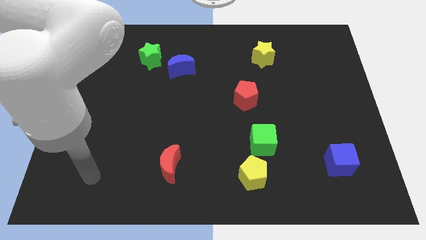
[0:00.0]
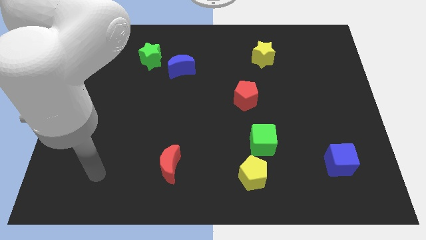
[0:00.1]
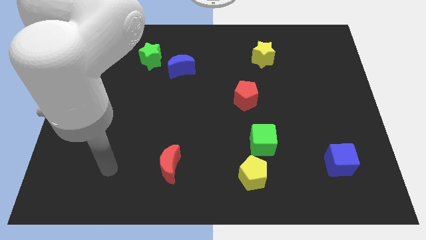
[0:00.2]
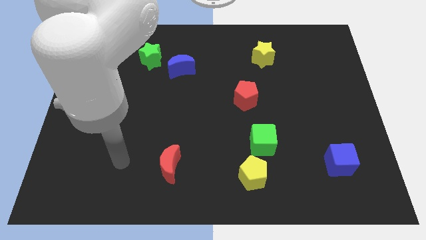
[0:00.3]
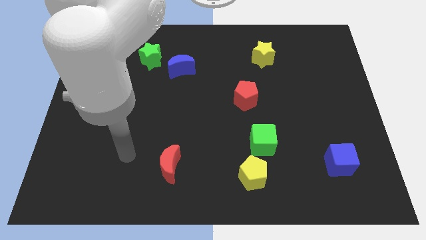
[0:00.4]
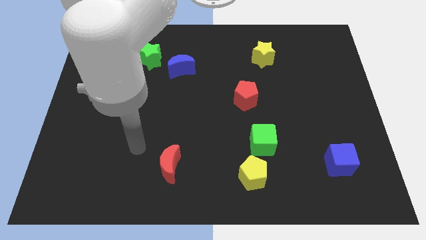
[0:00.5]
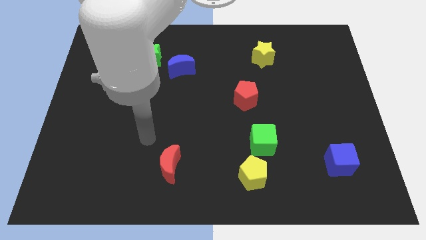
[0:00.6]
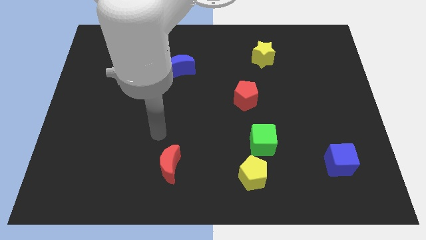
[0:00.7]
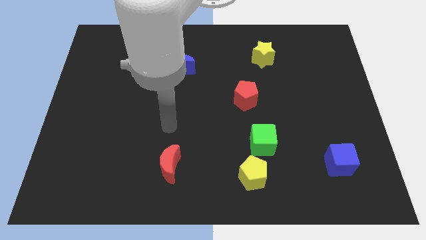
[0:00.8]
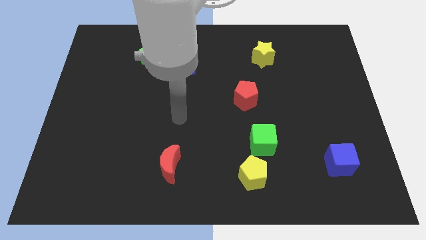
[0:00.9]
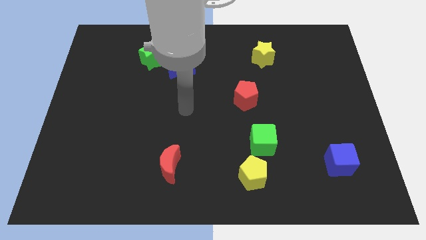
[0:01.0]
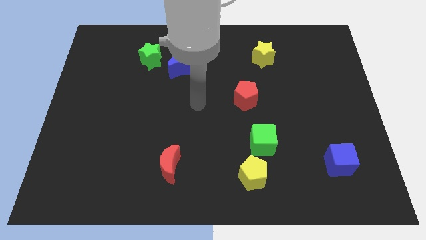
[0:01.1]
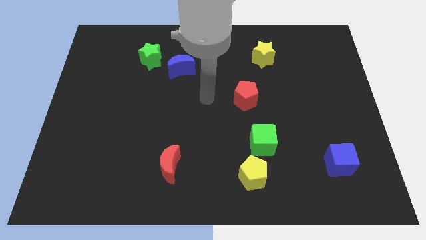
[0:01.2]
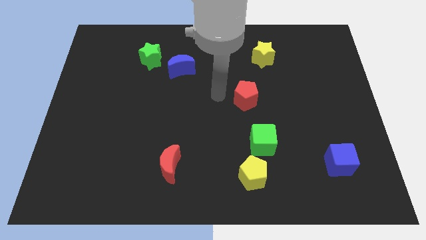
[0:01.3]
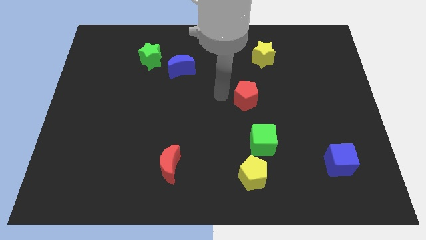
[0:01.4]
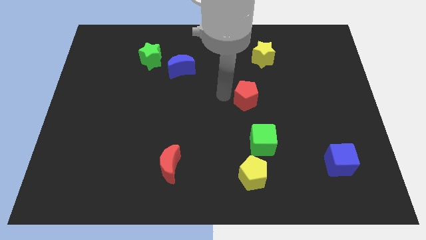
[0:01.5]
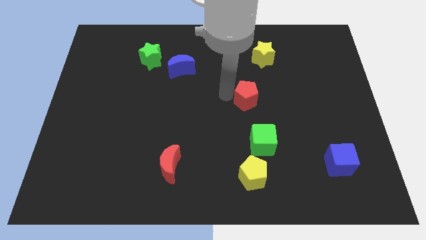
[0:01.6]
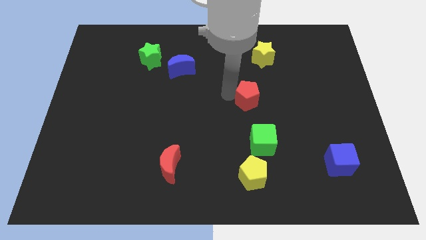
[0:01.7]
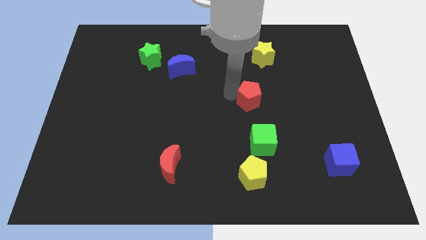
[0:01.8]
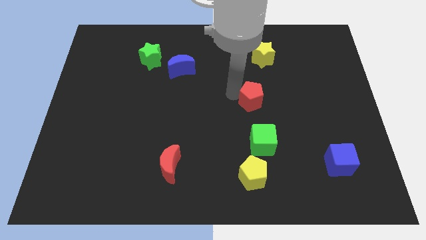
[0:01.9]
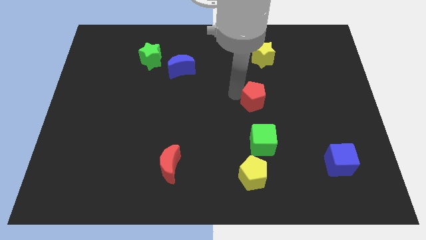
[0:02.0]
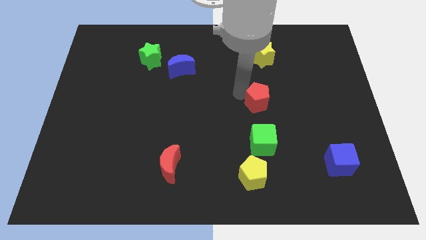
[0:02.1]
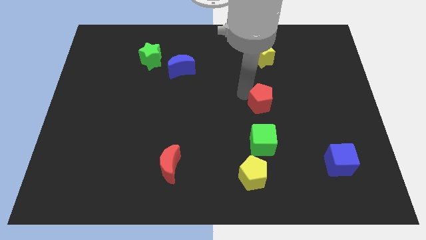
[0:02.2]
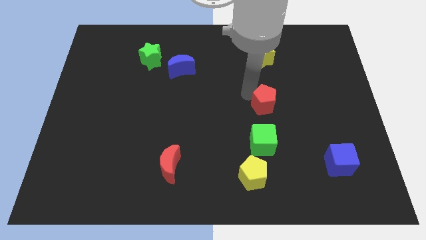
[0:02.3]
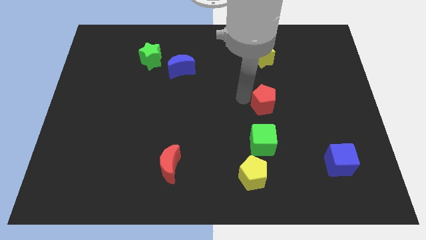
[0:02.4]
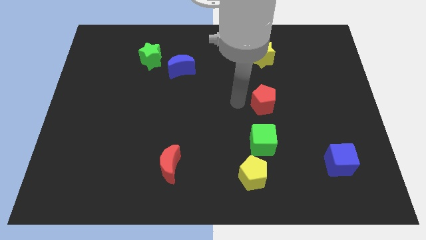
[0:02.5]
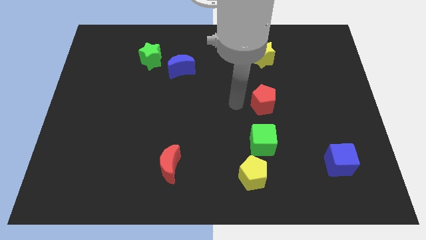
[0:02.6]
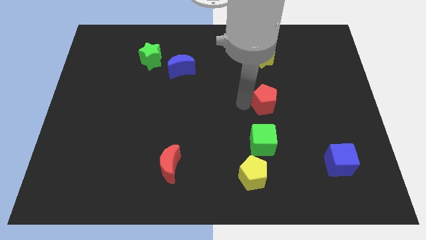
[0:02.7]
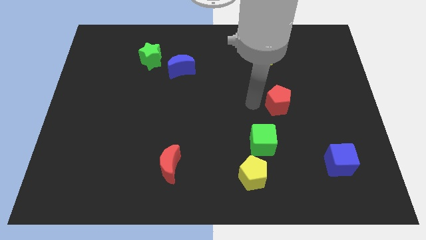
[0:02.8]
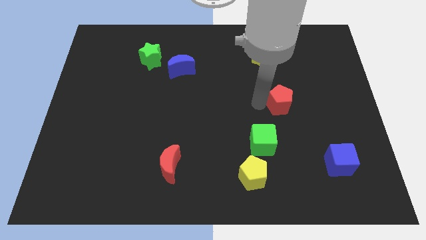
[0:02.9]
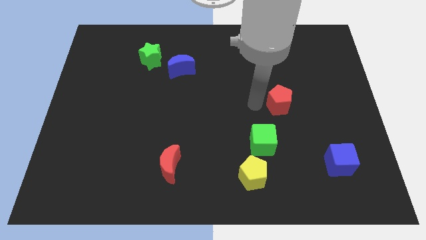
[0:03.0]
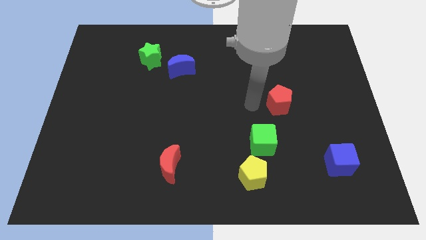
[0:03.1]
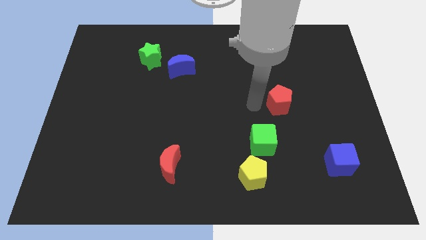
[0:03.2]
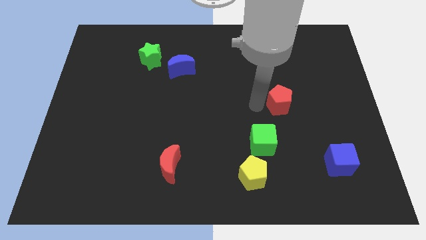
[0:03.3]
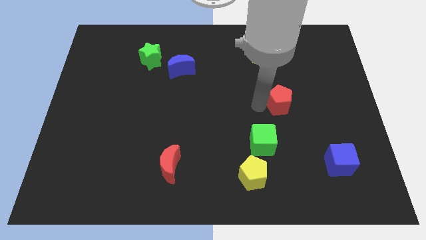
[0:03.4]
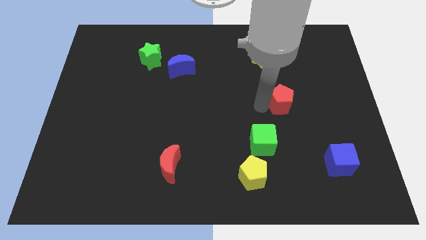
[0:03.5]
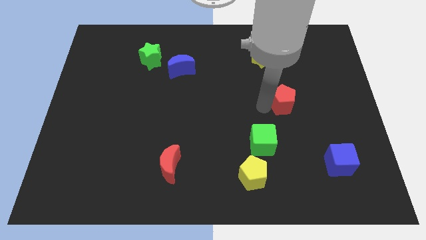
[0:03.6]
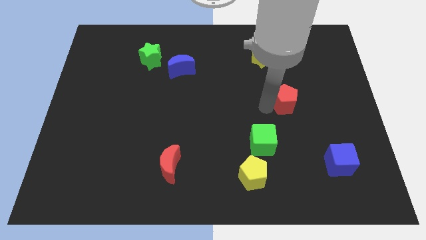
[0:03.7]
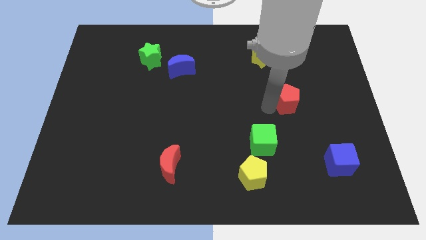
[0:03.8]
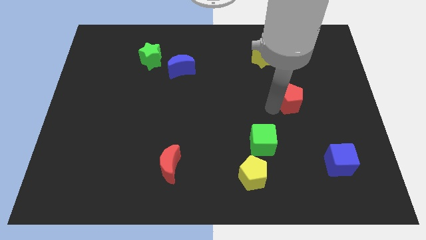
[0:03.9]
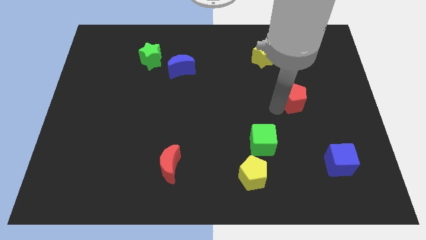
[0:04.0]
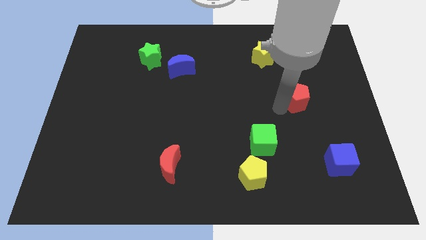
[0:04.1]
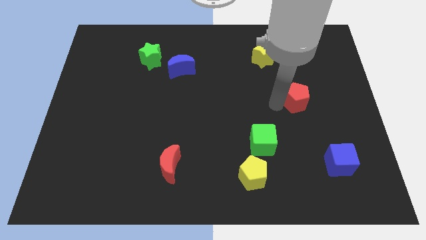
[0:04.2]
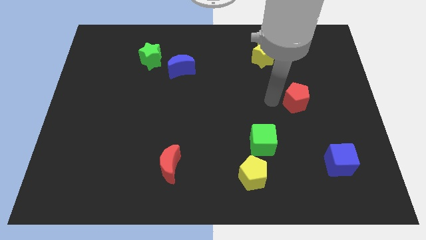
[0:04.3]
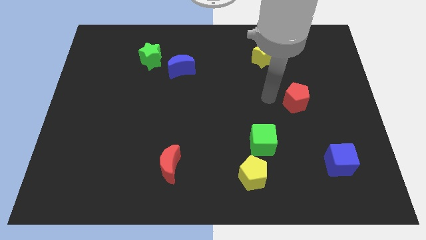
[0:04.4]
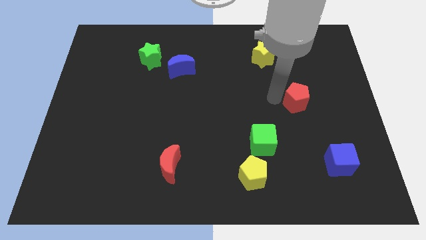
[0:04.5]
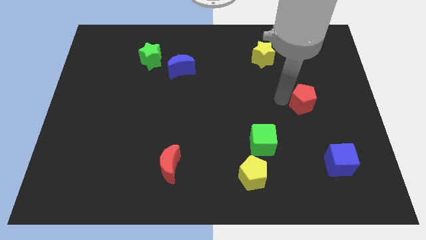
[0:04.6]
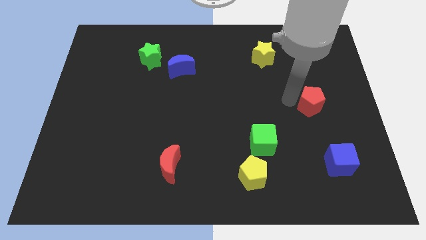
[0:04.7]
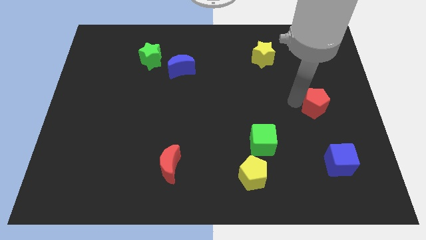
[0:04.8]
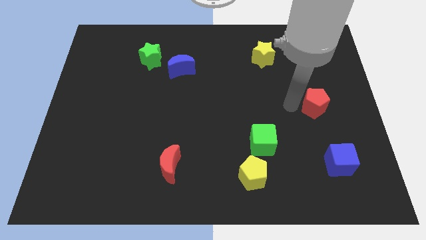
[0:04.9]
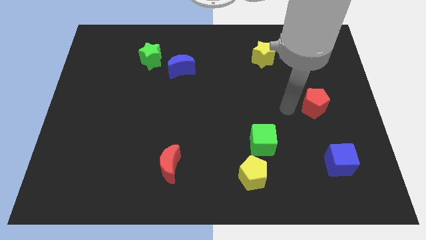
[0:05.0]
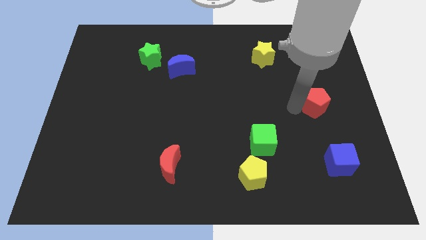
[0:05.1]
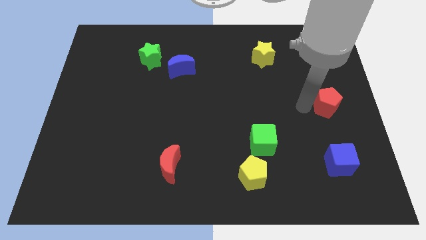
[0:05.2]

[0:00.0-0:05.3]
slide the red pentagon to the right side of the board
